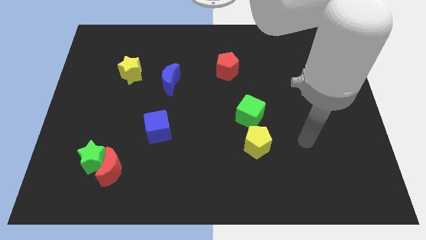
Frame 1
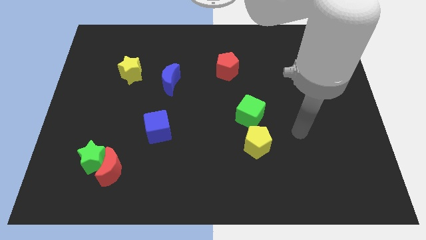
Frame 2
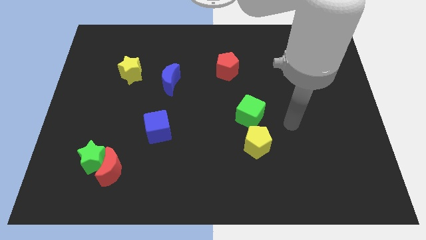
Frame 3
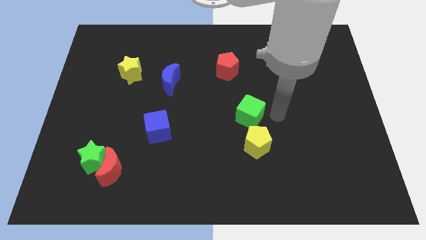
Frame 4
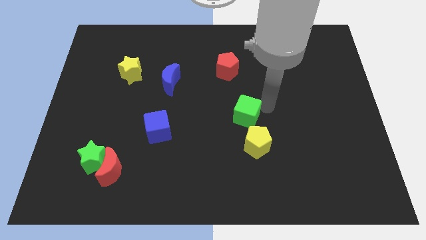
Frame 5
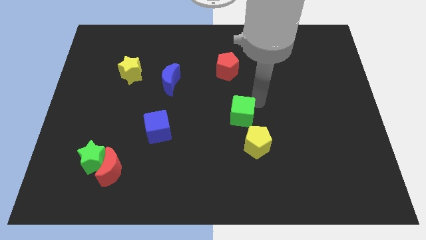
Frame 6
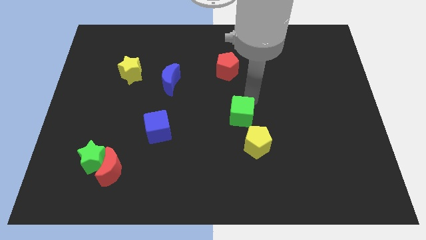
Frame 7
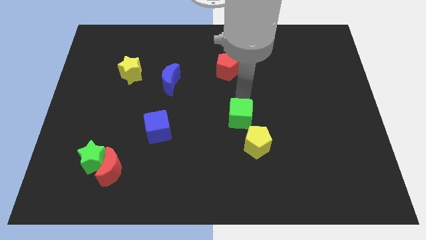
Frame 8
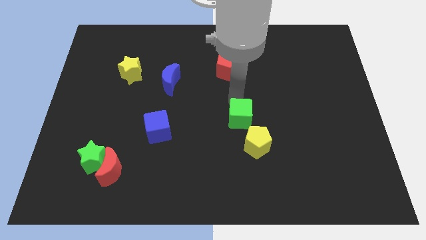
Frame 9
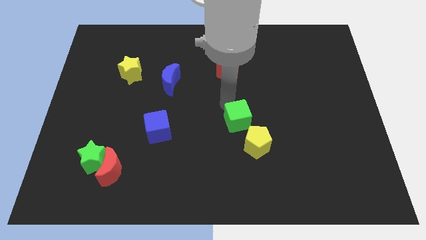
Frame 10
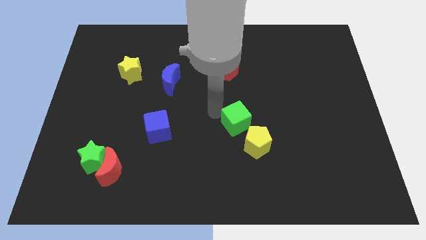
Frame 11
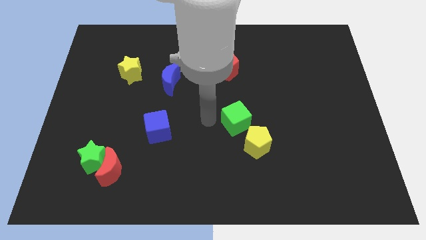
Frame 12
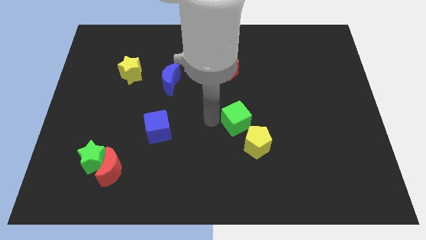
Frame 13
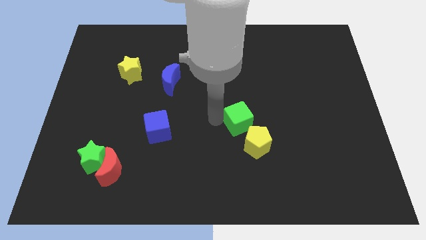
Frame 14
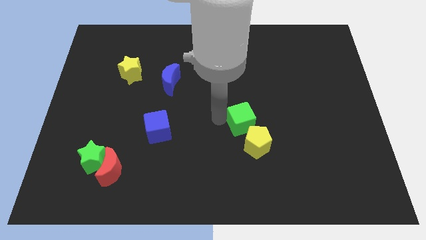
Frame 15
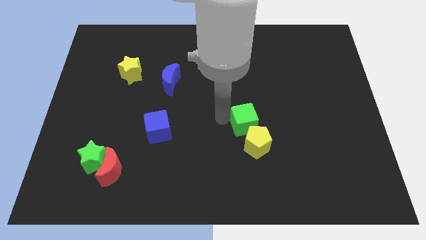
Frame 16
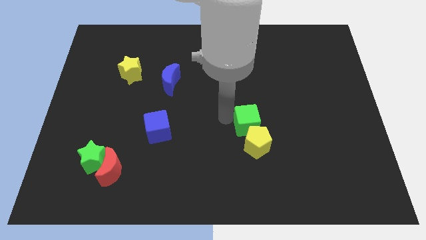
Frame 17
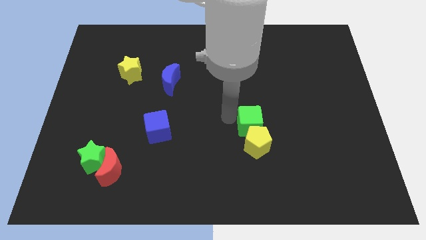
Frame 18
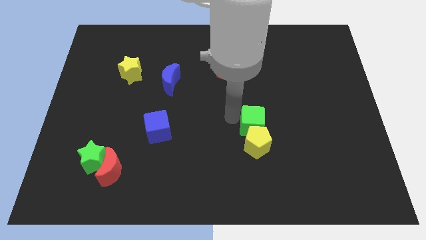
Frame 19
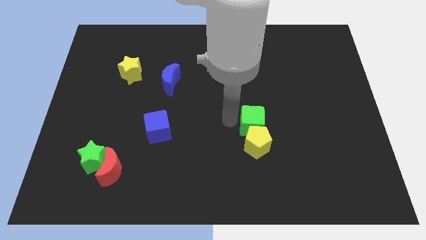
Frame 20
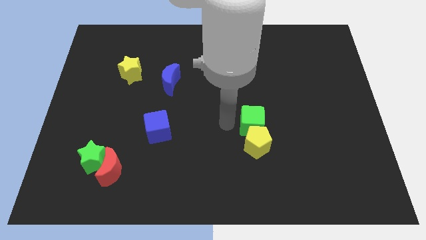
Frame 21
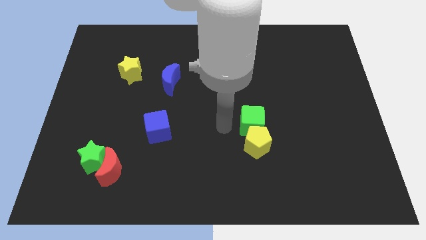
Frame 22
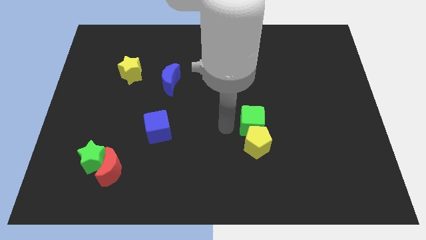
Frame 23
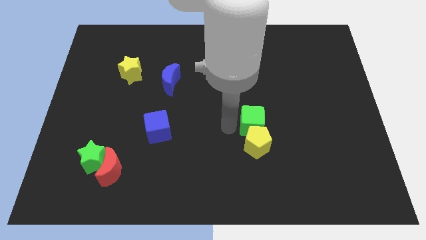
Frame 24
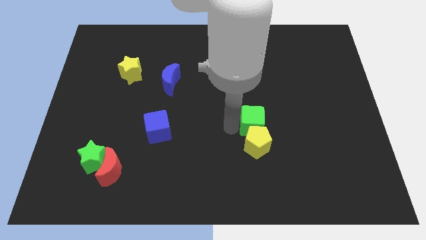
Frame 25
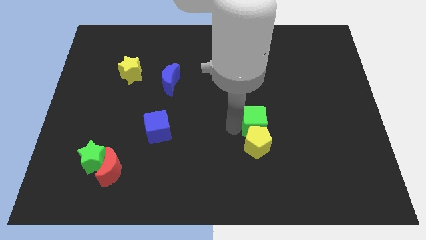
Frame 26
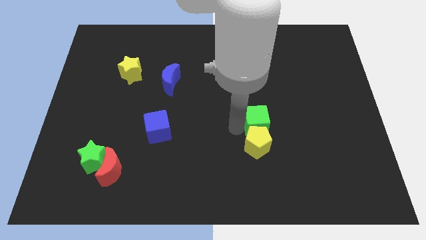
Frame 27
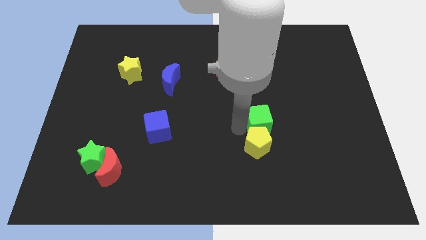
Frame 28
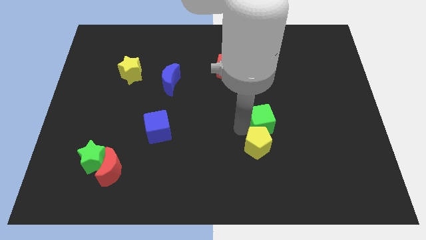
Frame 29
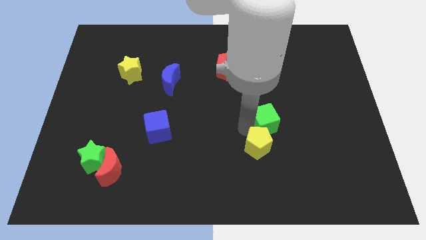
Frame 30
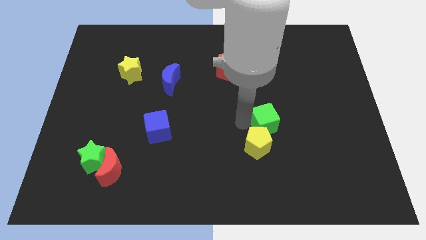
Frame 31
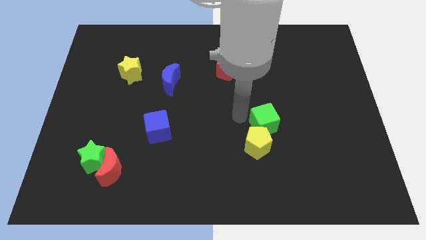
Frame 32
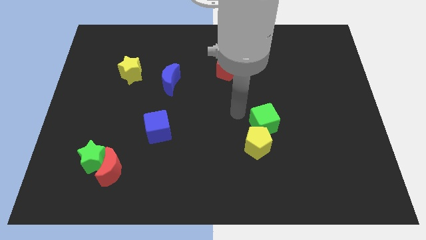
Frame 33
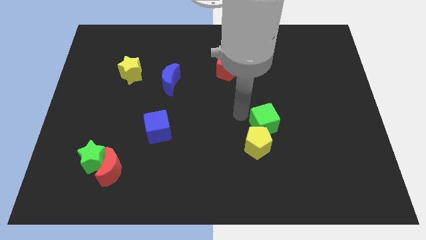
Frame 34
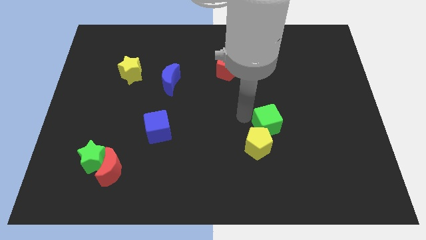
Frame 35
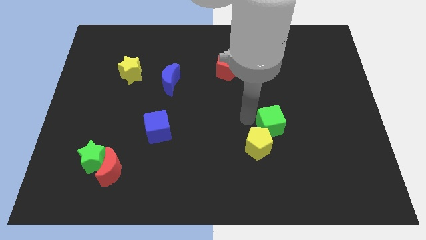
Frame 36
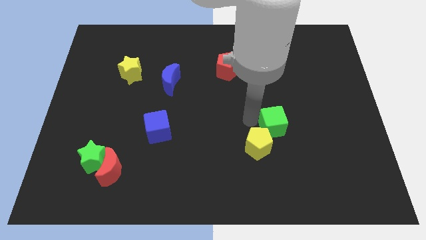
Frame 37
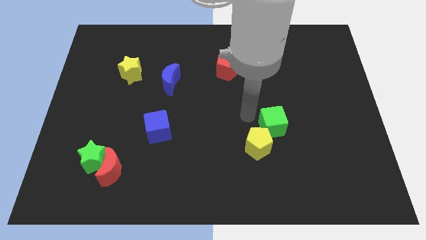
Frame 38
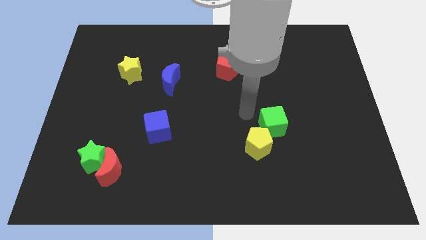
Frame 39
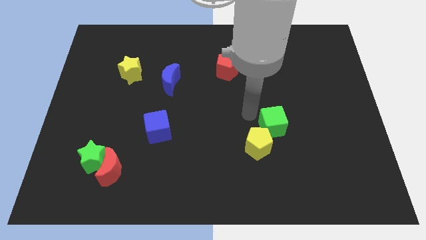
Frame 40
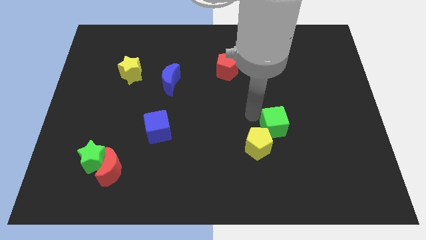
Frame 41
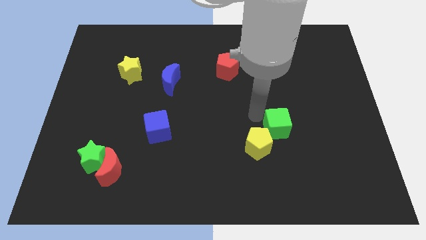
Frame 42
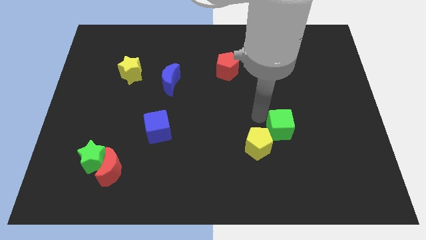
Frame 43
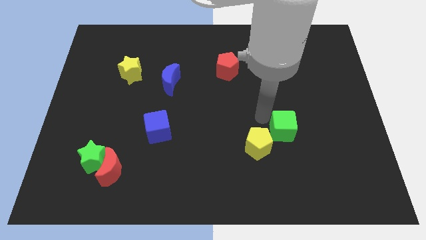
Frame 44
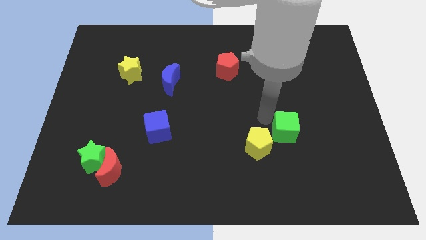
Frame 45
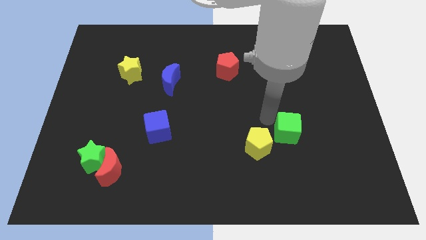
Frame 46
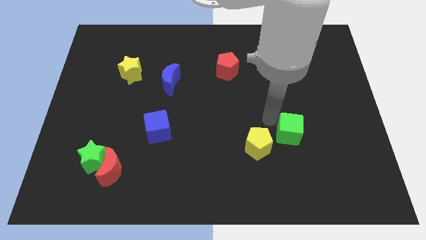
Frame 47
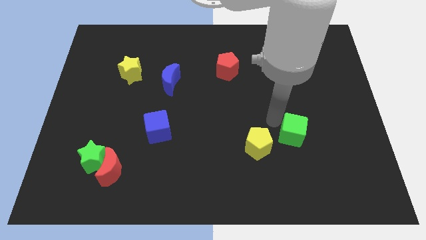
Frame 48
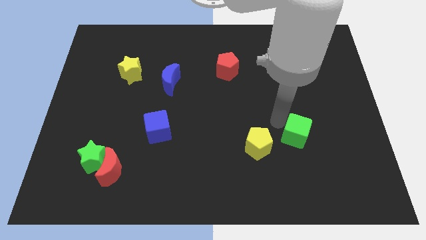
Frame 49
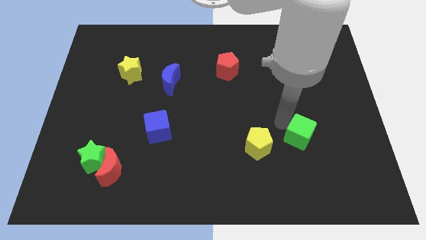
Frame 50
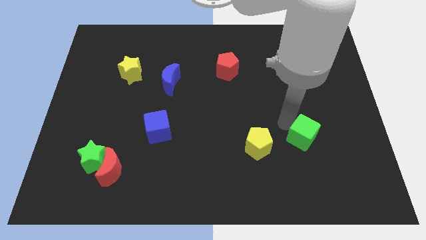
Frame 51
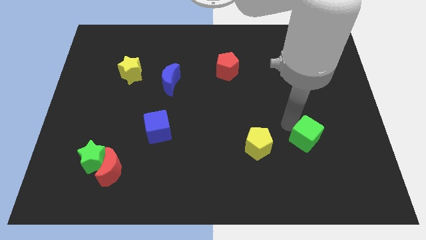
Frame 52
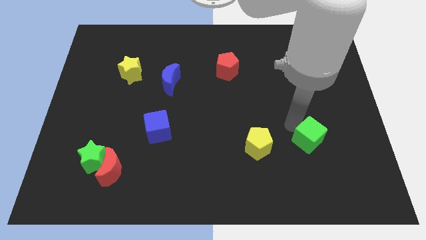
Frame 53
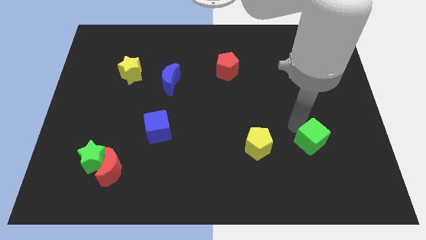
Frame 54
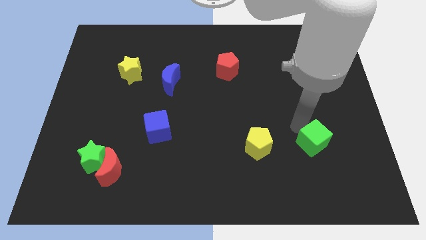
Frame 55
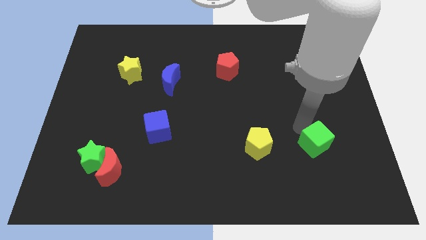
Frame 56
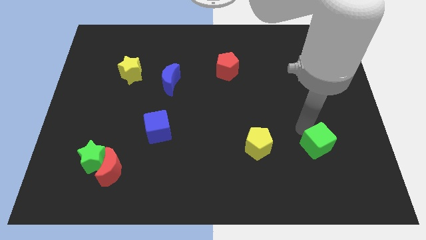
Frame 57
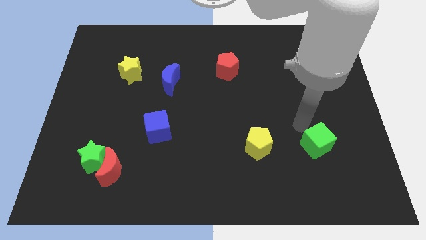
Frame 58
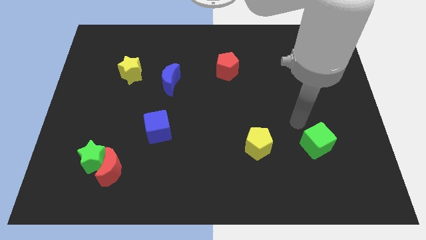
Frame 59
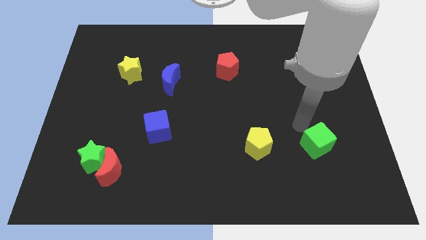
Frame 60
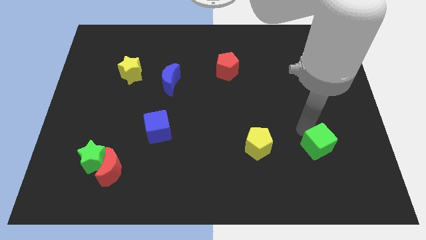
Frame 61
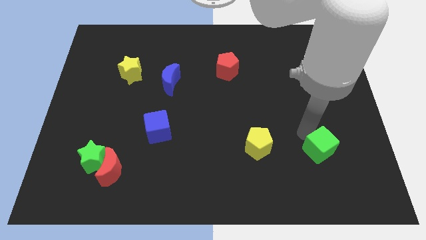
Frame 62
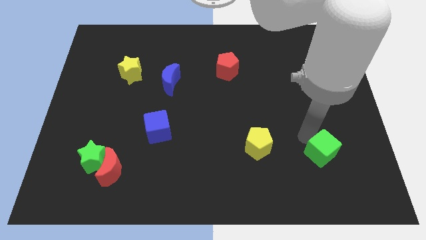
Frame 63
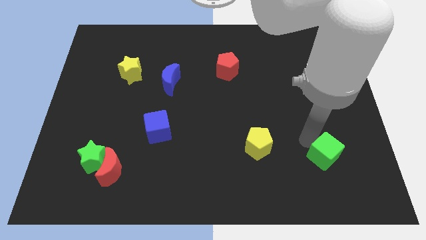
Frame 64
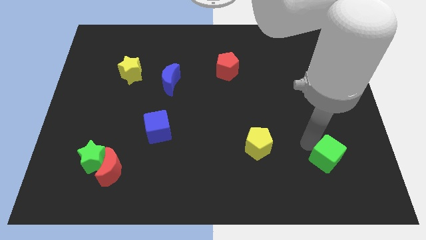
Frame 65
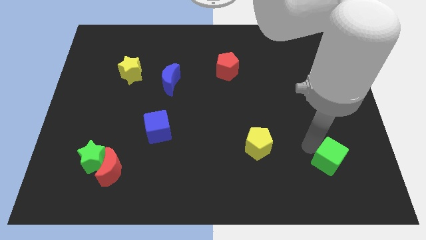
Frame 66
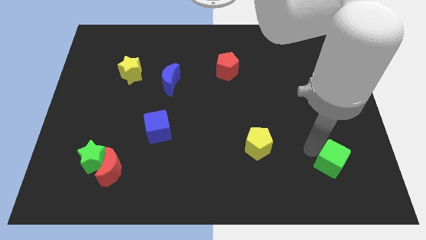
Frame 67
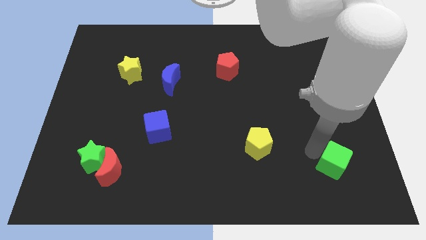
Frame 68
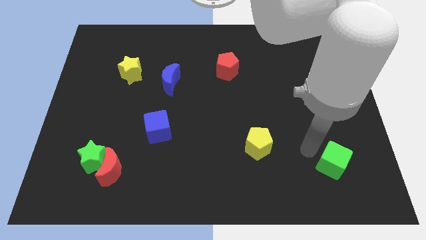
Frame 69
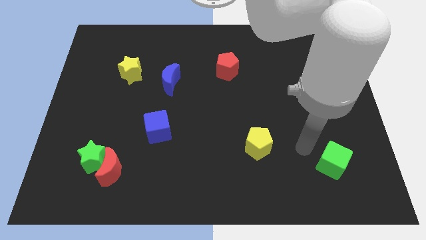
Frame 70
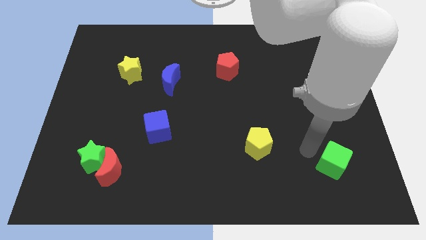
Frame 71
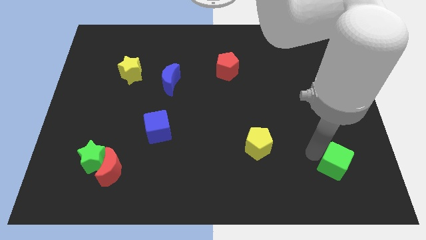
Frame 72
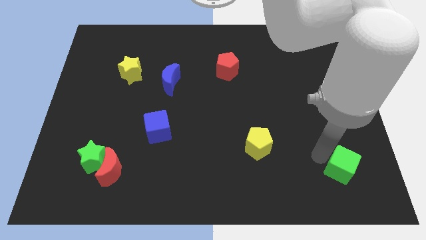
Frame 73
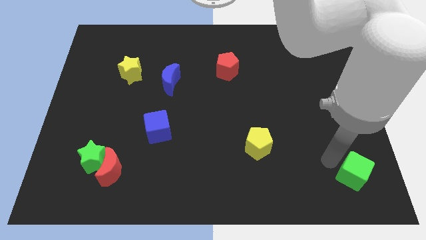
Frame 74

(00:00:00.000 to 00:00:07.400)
slide the green cube to the bottom right corner

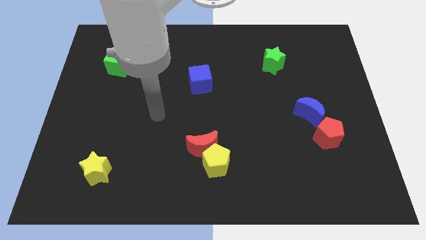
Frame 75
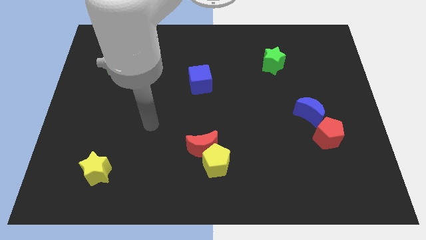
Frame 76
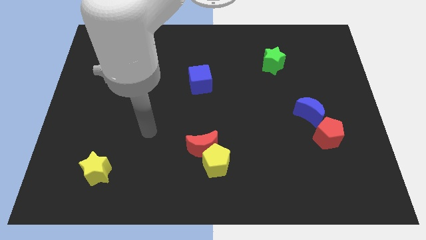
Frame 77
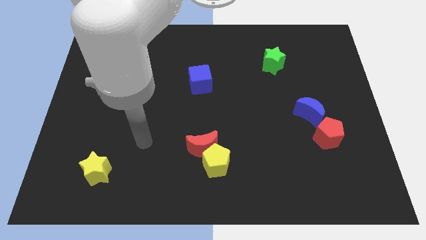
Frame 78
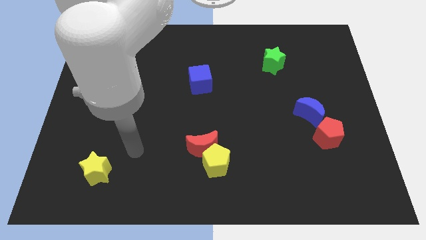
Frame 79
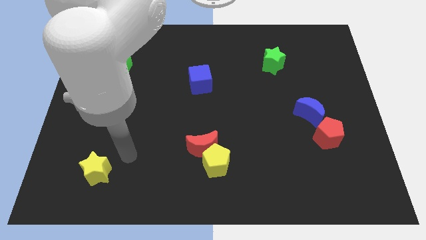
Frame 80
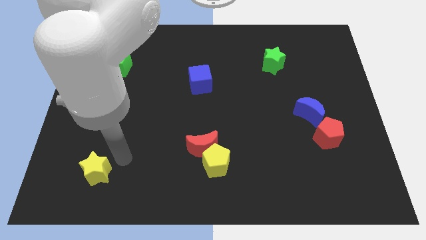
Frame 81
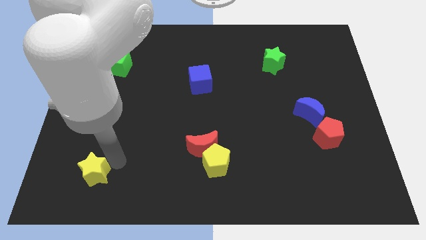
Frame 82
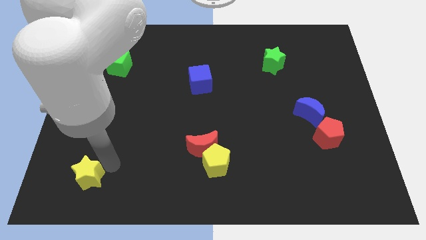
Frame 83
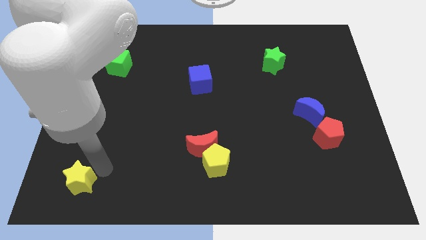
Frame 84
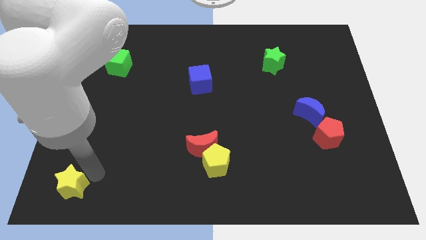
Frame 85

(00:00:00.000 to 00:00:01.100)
push the yellow star to the bottom left of the board
